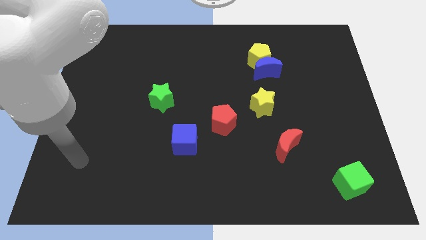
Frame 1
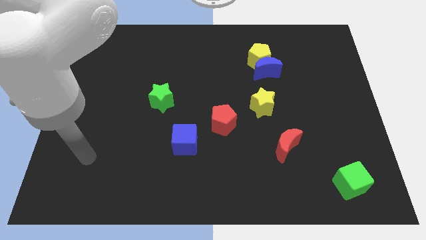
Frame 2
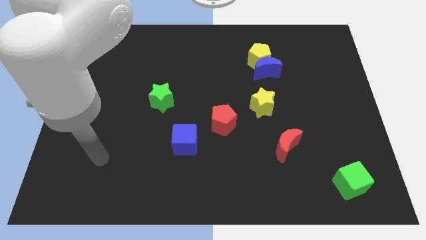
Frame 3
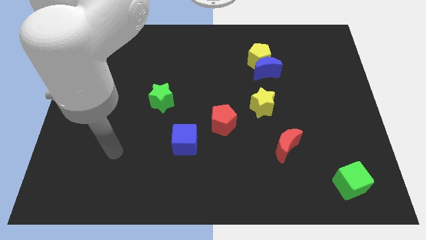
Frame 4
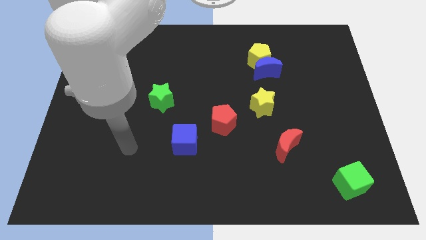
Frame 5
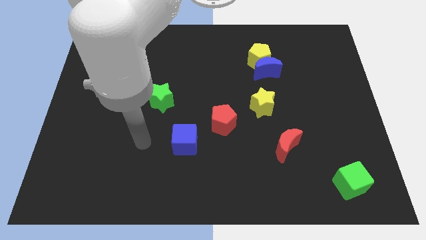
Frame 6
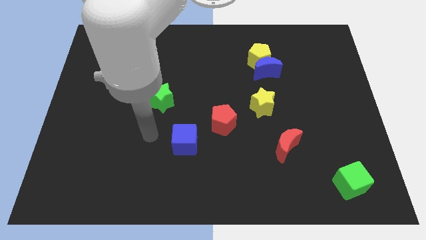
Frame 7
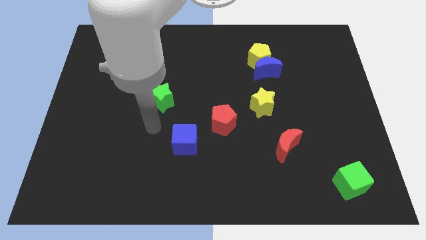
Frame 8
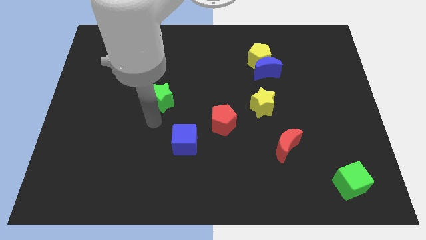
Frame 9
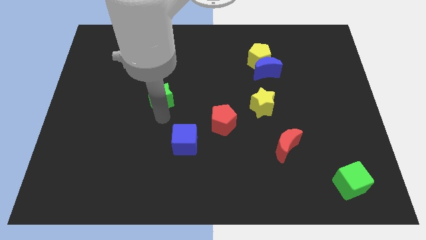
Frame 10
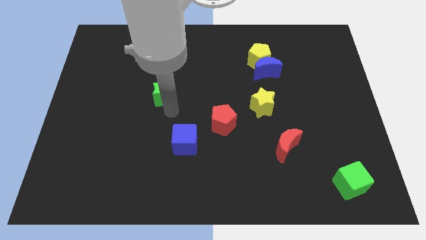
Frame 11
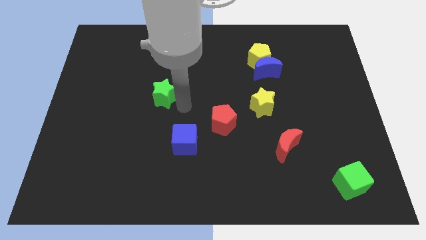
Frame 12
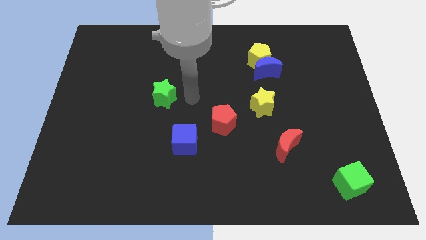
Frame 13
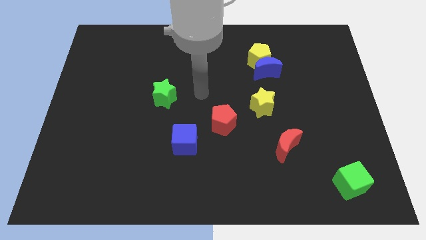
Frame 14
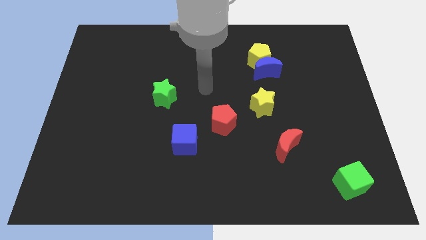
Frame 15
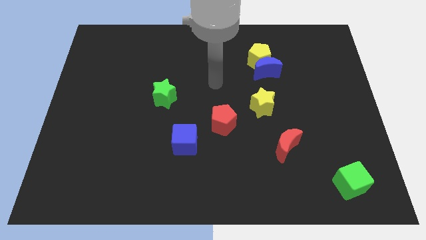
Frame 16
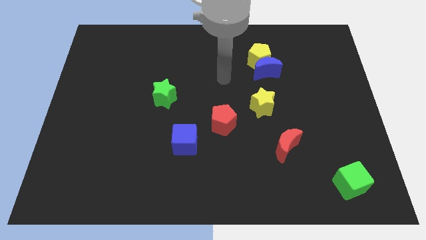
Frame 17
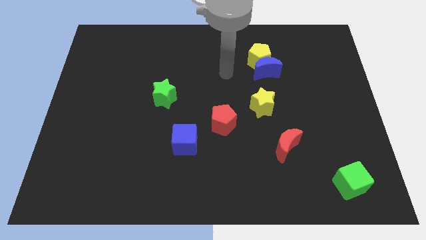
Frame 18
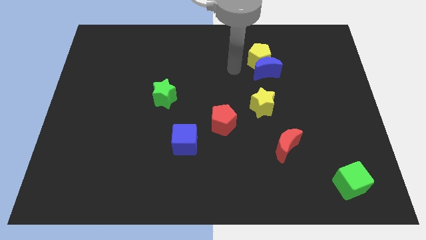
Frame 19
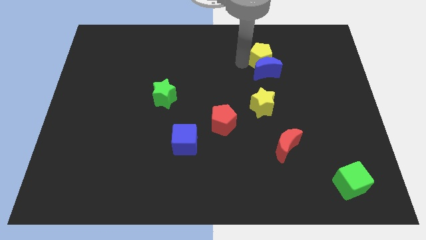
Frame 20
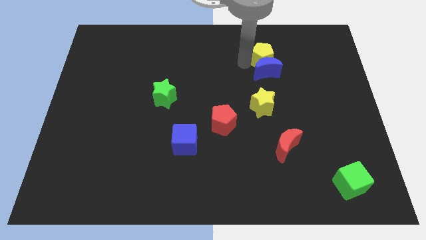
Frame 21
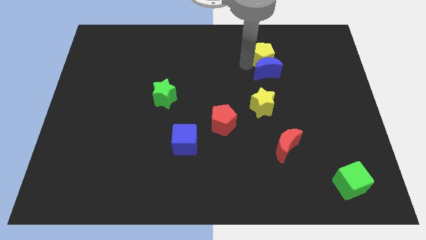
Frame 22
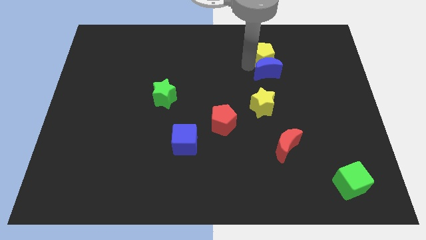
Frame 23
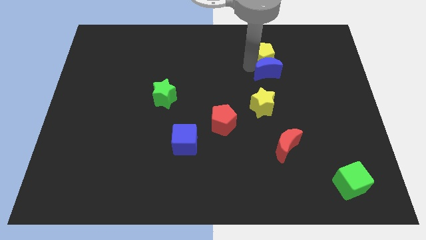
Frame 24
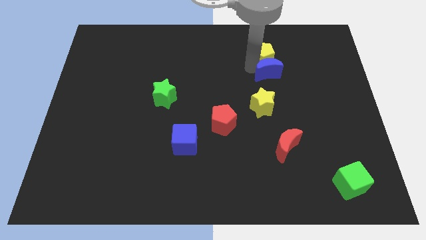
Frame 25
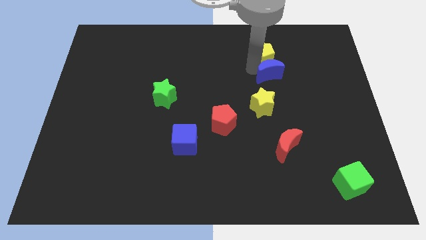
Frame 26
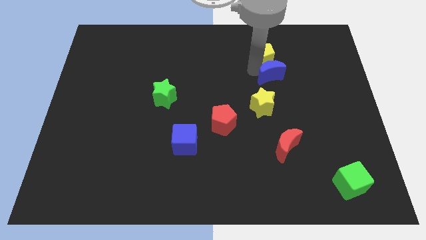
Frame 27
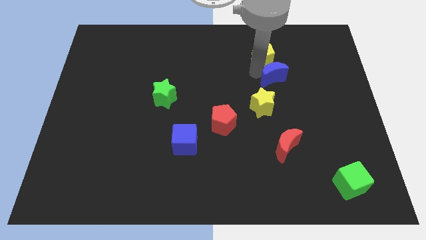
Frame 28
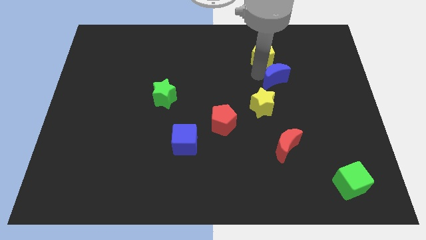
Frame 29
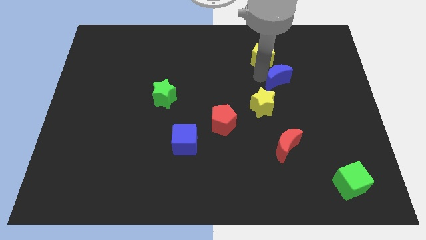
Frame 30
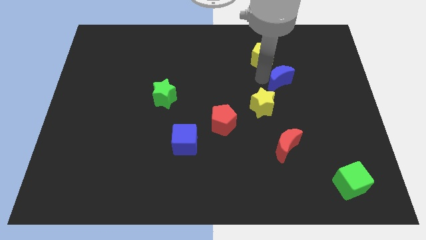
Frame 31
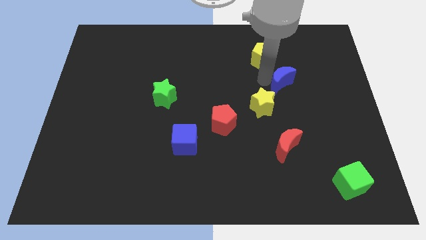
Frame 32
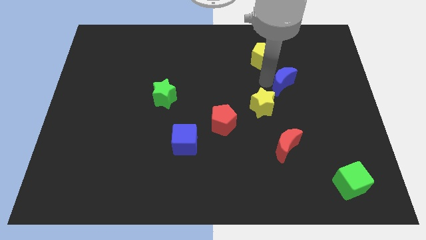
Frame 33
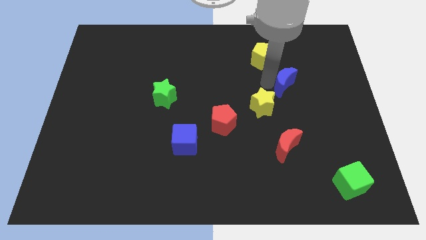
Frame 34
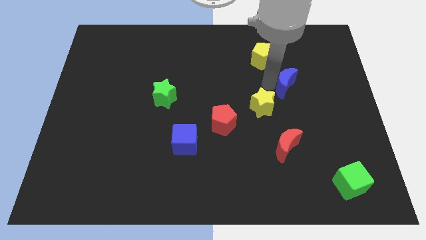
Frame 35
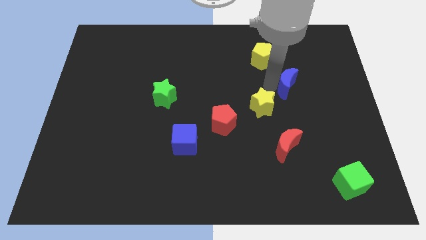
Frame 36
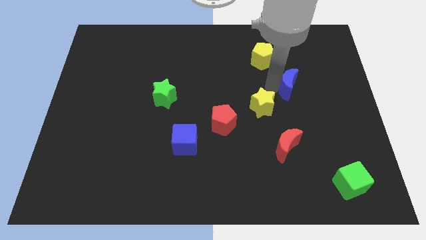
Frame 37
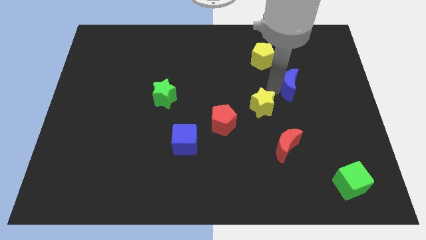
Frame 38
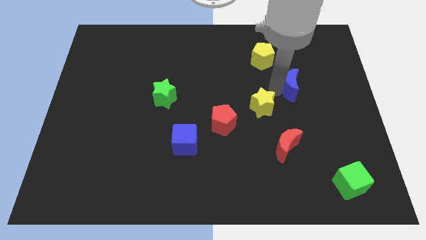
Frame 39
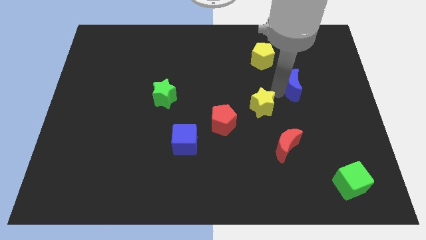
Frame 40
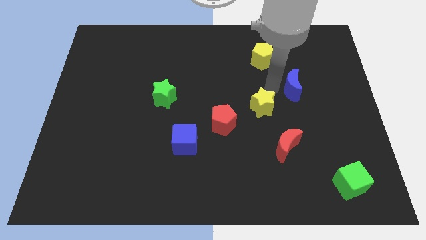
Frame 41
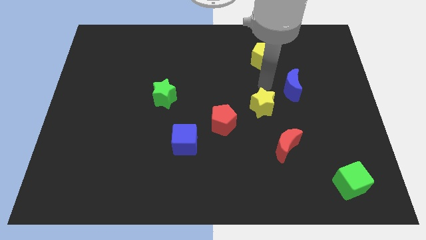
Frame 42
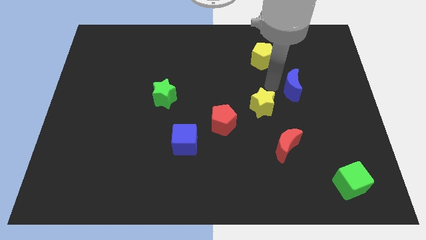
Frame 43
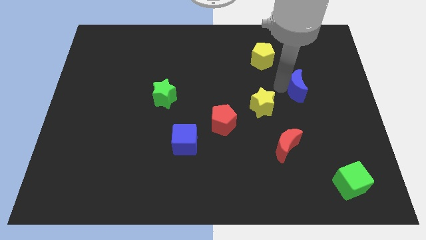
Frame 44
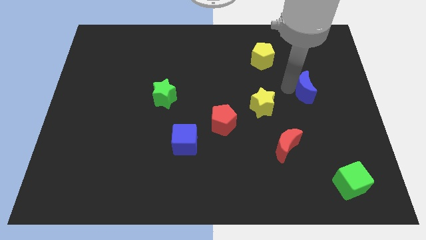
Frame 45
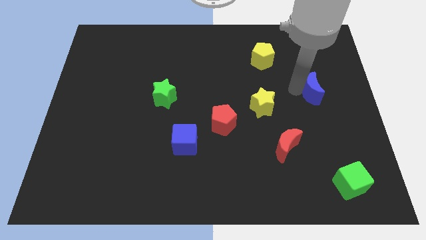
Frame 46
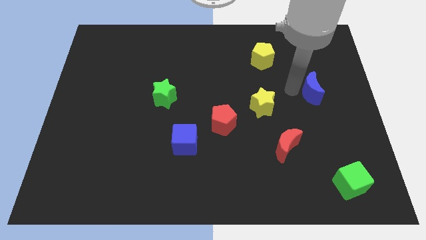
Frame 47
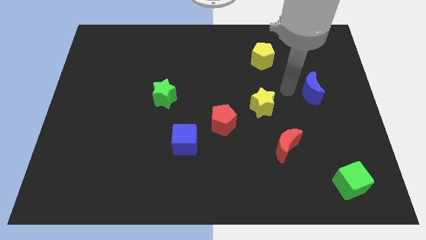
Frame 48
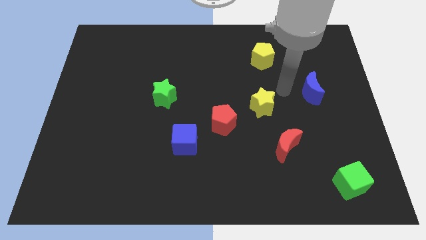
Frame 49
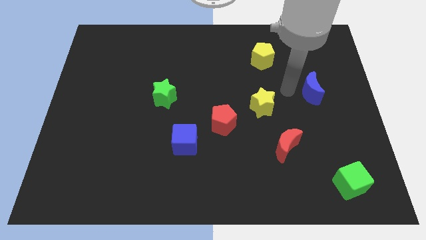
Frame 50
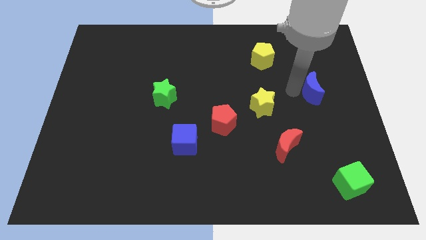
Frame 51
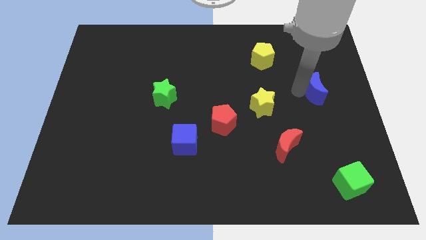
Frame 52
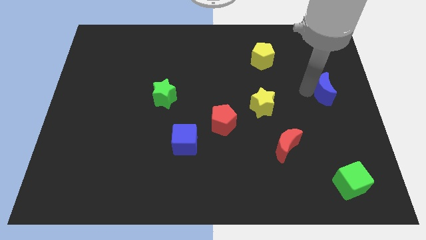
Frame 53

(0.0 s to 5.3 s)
slide the blue moon to the right side of the board

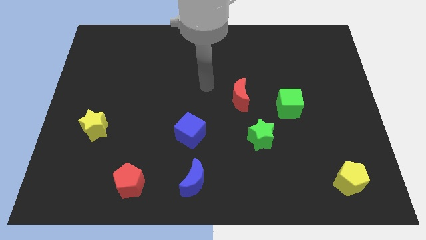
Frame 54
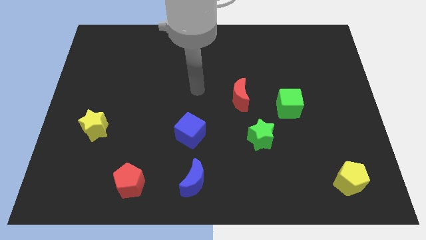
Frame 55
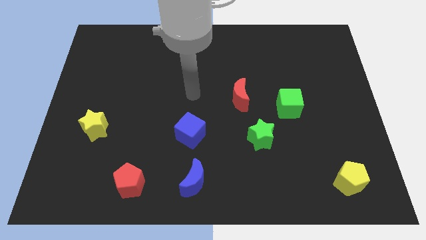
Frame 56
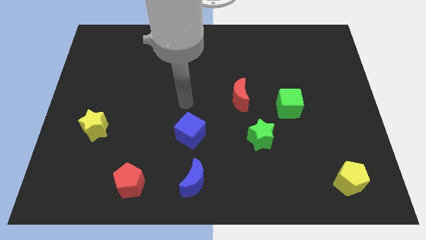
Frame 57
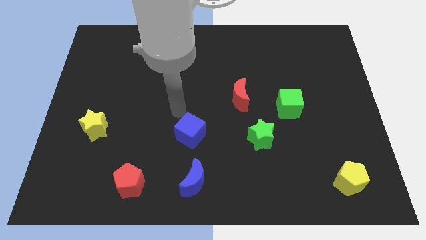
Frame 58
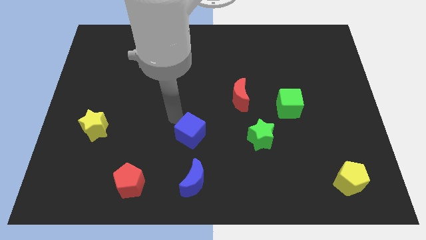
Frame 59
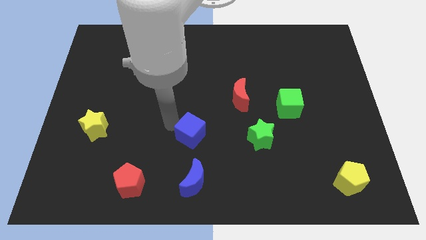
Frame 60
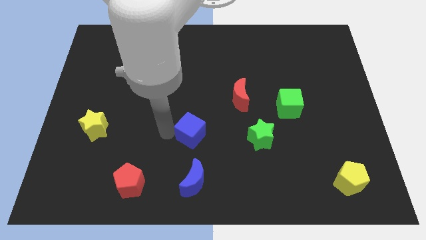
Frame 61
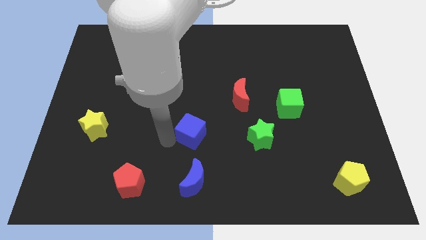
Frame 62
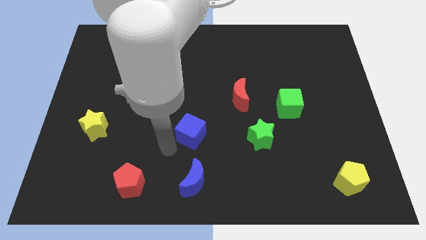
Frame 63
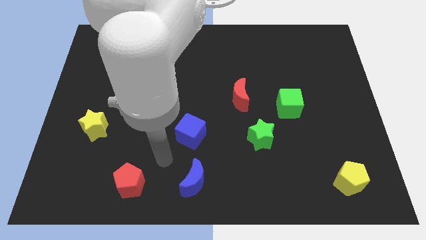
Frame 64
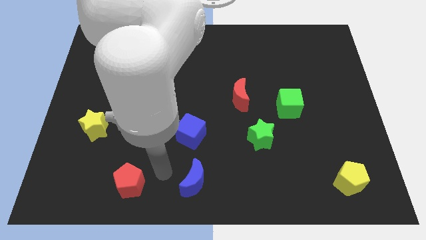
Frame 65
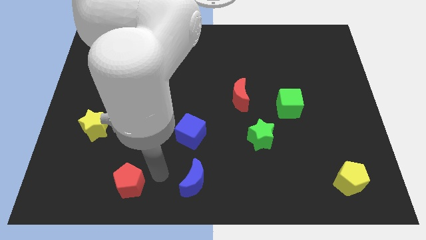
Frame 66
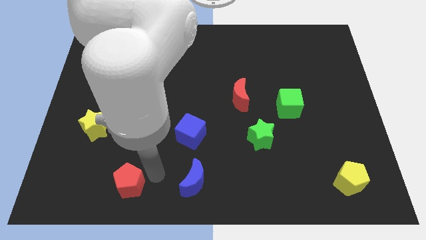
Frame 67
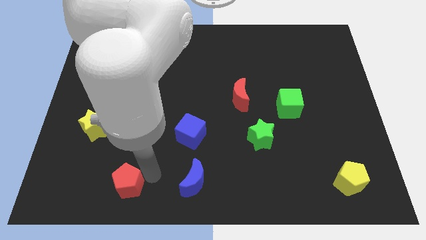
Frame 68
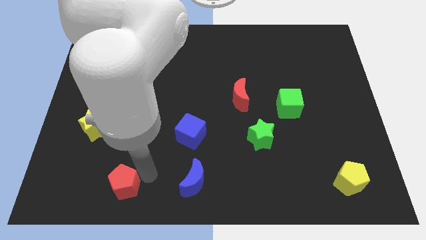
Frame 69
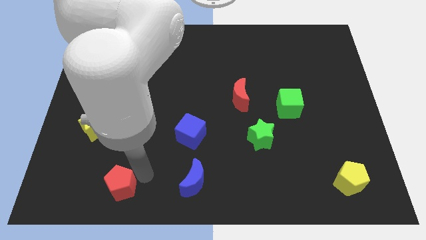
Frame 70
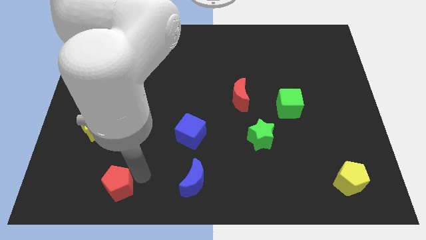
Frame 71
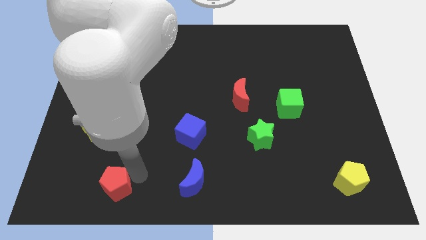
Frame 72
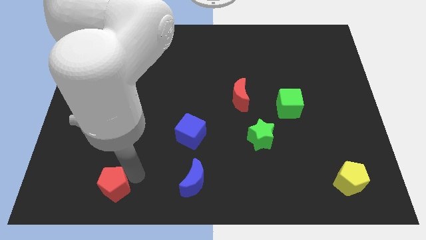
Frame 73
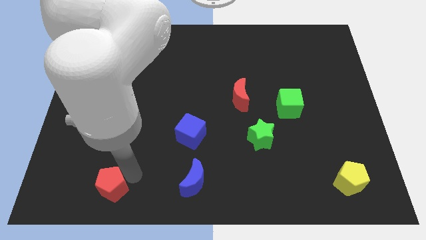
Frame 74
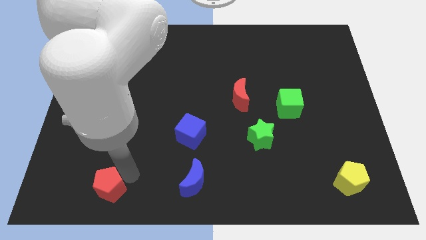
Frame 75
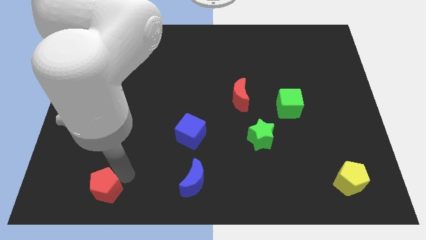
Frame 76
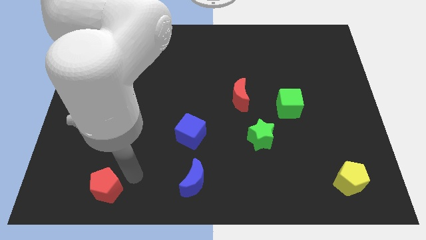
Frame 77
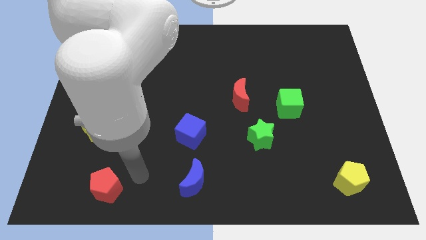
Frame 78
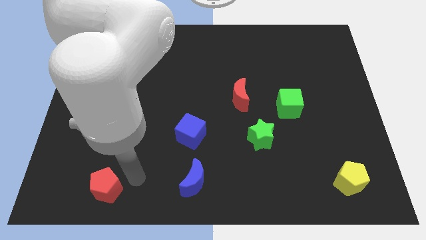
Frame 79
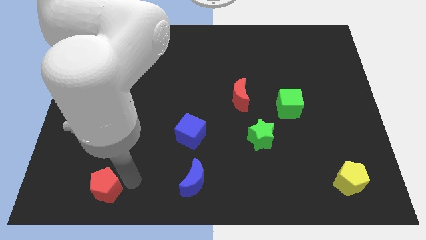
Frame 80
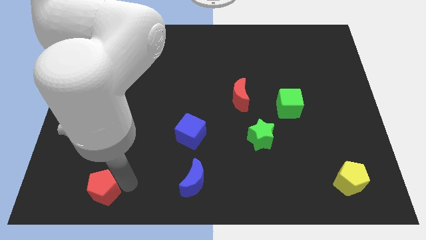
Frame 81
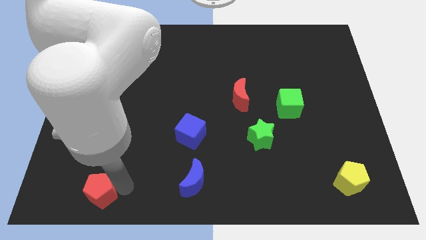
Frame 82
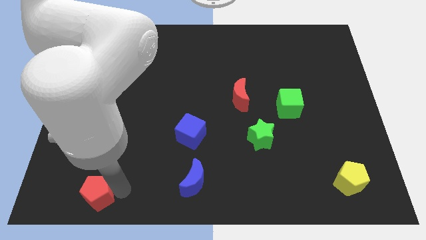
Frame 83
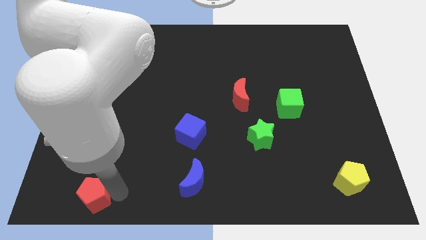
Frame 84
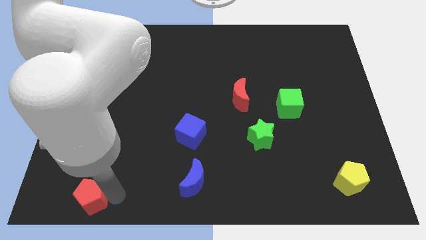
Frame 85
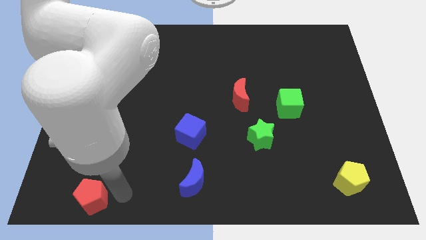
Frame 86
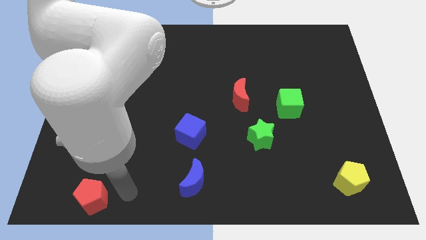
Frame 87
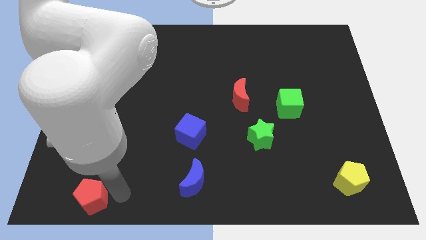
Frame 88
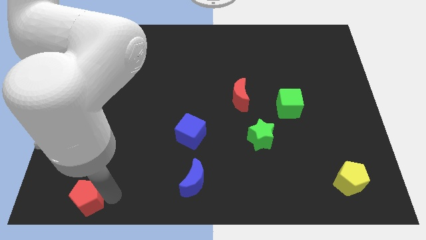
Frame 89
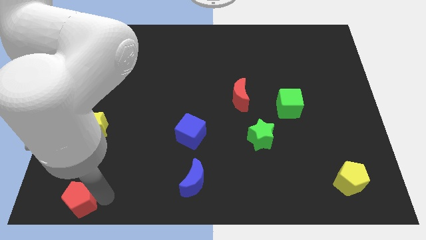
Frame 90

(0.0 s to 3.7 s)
move the red pentagon to the bottom left of the board
